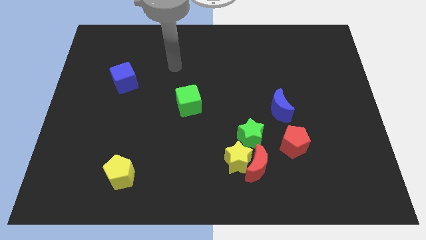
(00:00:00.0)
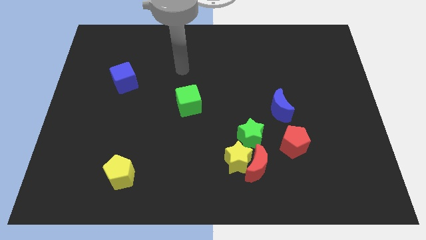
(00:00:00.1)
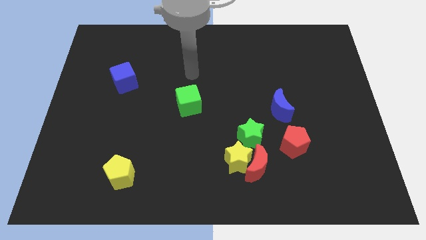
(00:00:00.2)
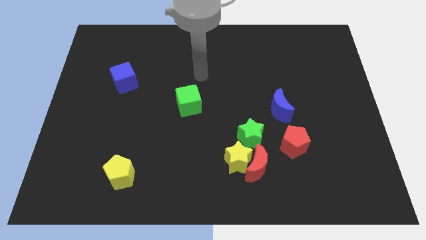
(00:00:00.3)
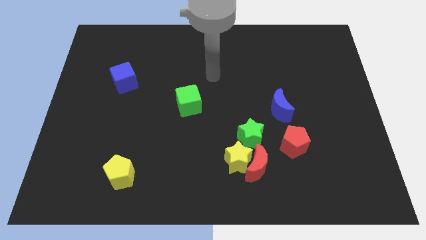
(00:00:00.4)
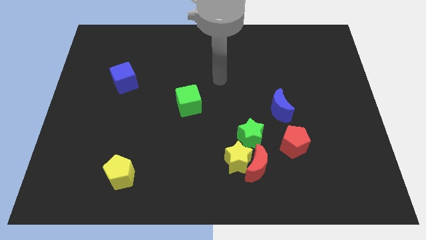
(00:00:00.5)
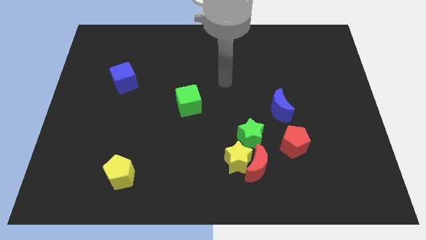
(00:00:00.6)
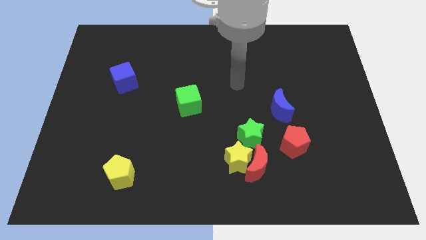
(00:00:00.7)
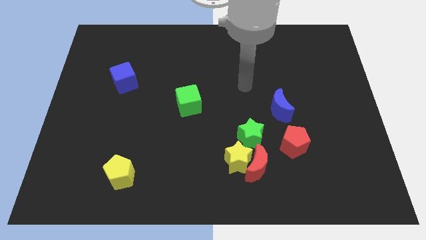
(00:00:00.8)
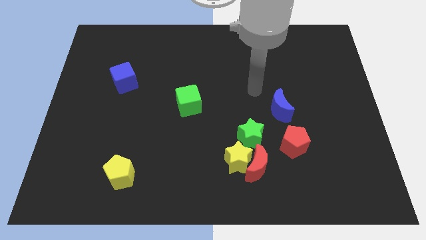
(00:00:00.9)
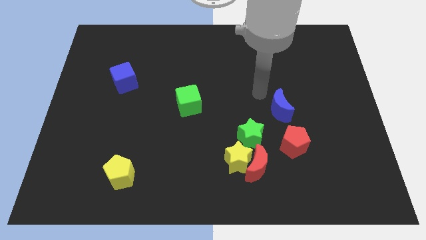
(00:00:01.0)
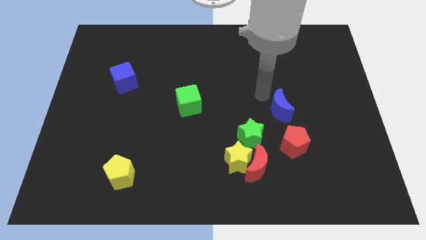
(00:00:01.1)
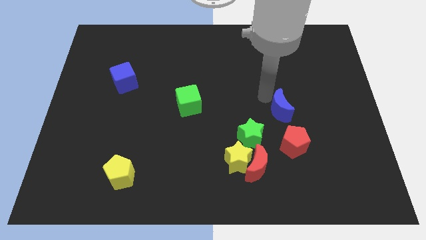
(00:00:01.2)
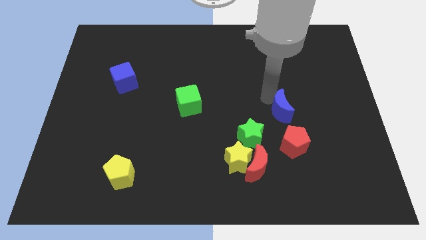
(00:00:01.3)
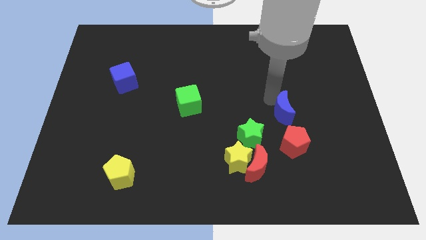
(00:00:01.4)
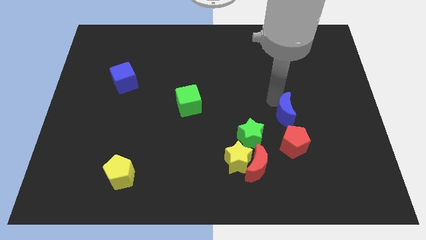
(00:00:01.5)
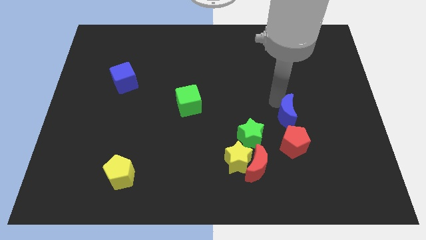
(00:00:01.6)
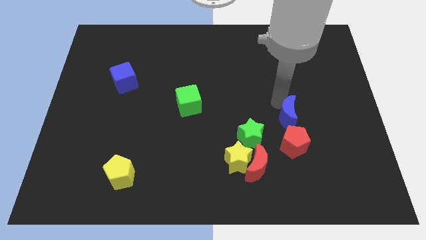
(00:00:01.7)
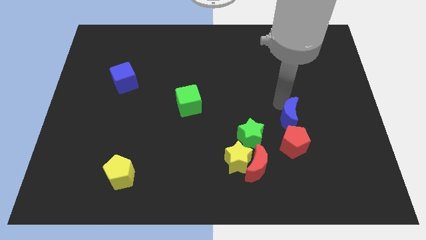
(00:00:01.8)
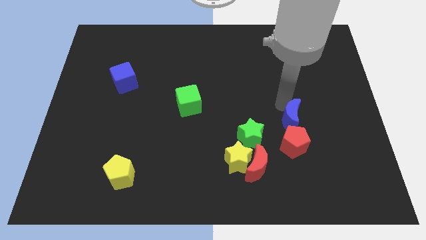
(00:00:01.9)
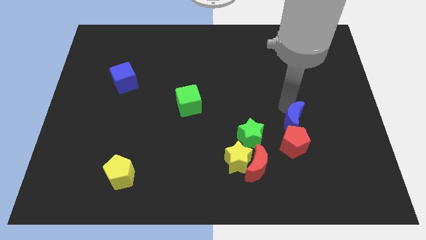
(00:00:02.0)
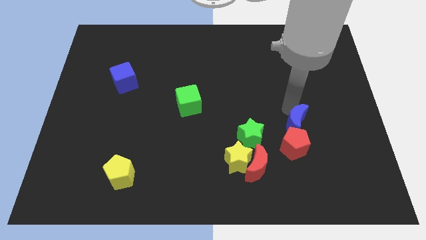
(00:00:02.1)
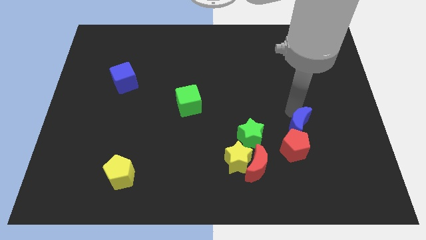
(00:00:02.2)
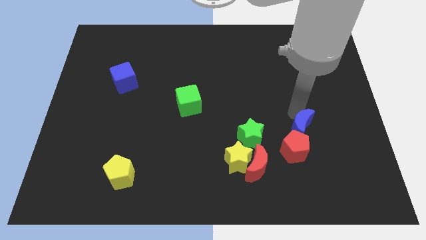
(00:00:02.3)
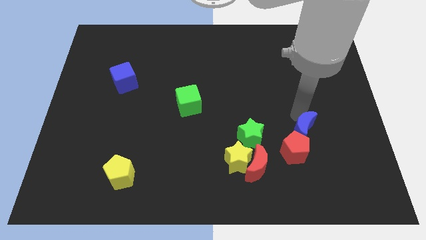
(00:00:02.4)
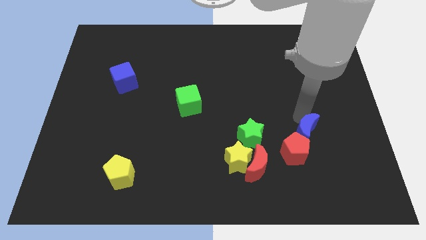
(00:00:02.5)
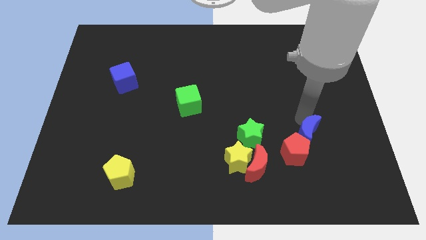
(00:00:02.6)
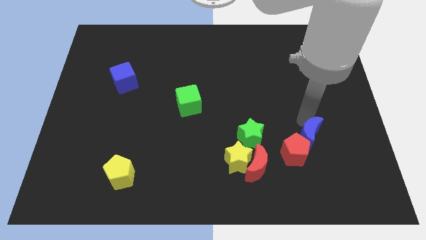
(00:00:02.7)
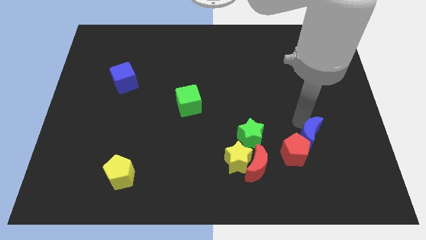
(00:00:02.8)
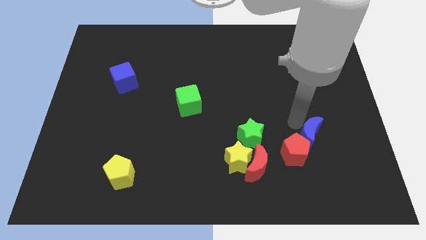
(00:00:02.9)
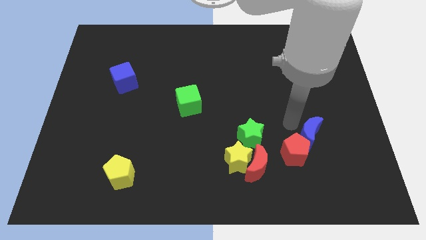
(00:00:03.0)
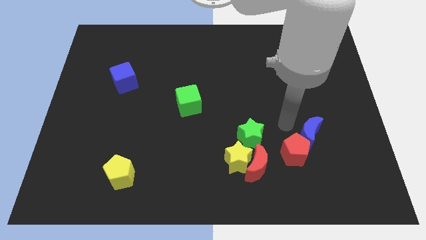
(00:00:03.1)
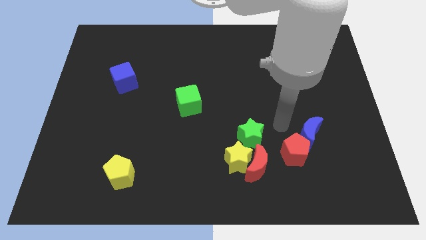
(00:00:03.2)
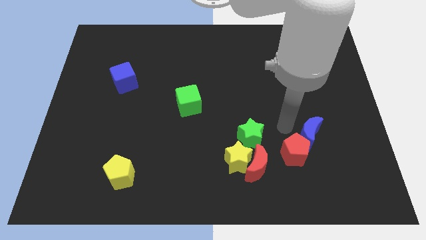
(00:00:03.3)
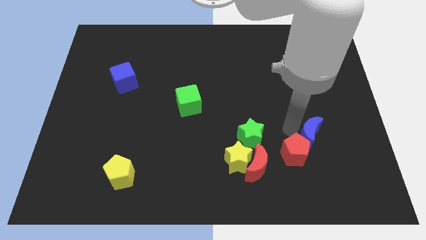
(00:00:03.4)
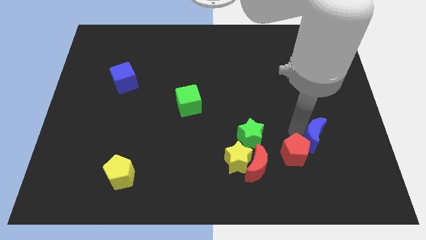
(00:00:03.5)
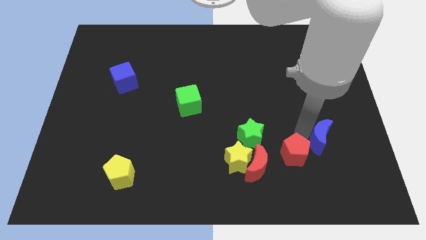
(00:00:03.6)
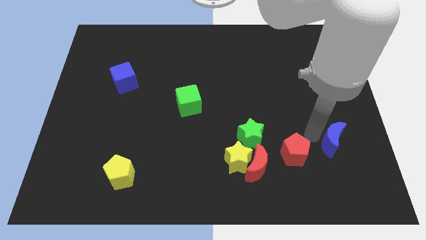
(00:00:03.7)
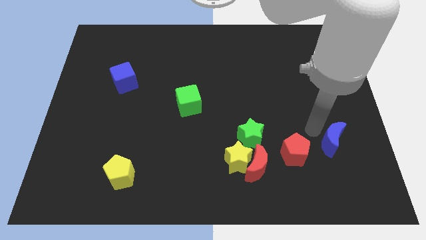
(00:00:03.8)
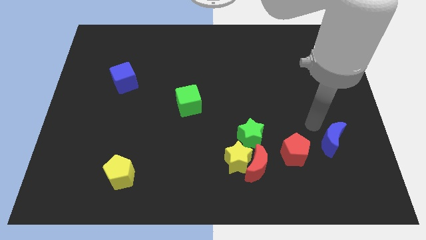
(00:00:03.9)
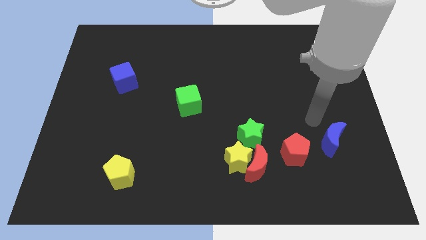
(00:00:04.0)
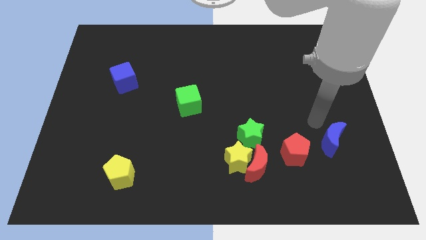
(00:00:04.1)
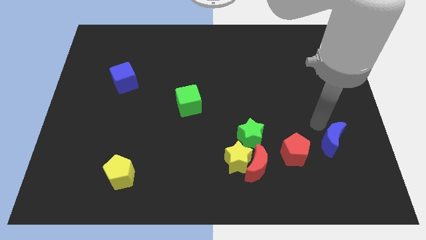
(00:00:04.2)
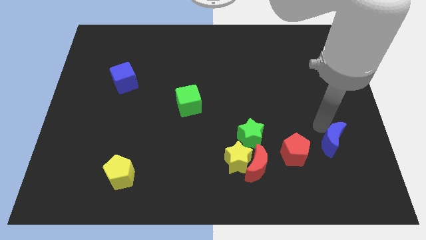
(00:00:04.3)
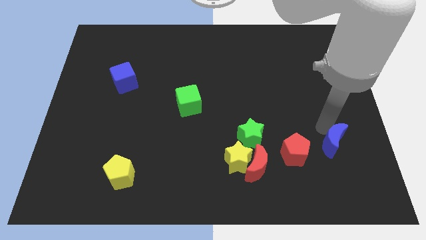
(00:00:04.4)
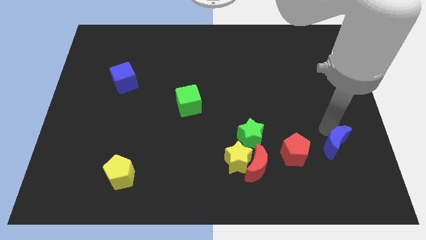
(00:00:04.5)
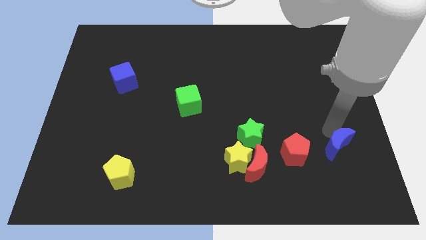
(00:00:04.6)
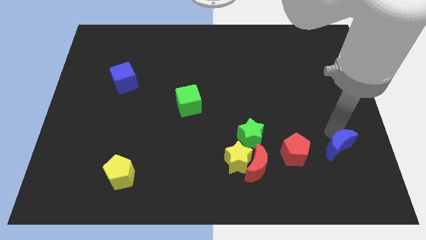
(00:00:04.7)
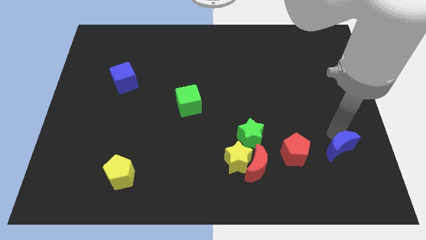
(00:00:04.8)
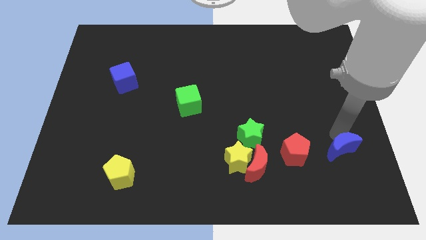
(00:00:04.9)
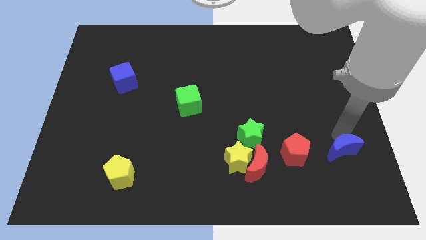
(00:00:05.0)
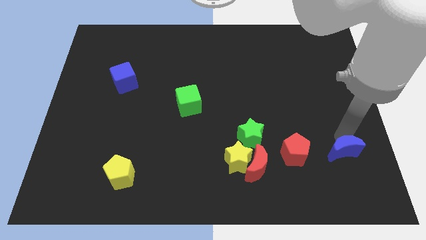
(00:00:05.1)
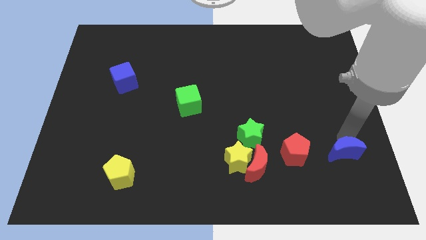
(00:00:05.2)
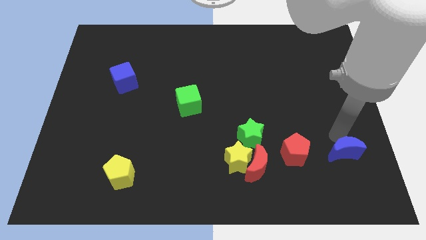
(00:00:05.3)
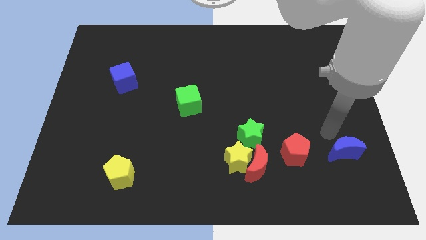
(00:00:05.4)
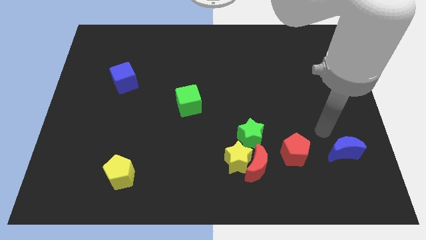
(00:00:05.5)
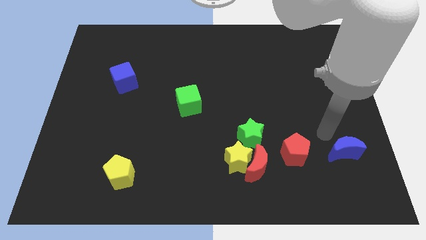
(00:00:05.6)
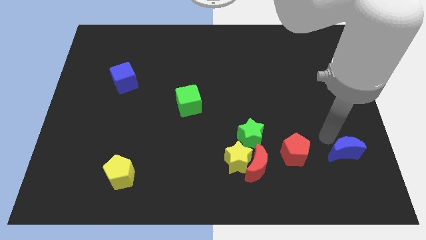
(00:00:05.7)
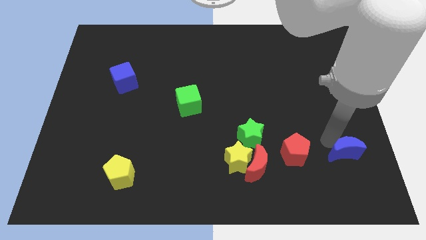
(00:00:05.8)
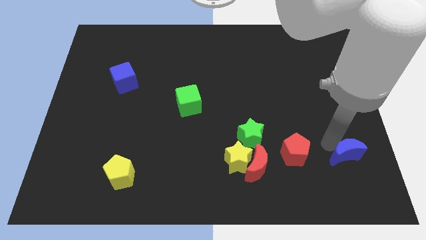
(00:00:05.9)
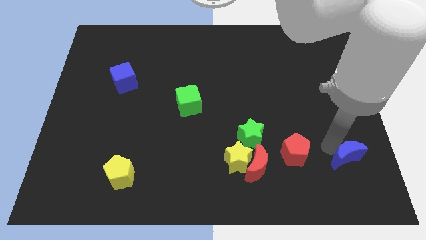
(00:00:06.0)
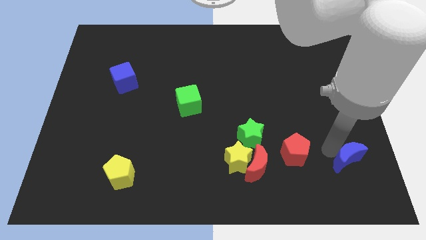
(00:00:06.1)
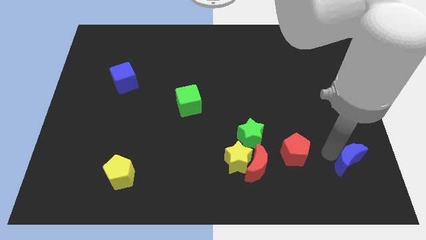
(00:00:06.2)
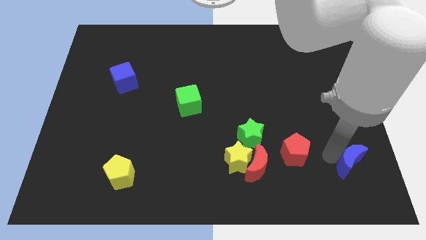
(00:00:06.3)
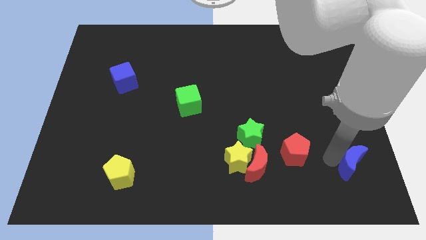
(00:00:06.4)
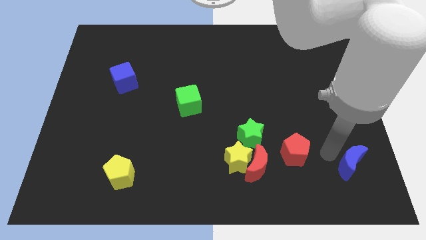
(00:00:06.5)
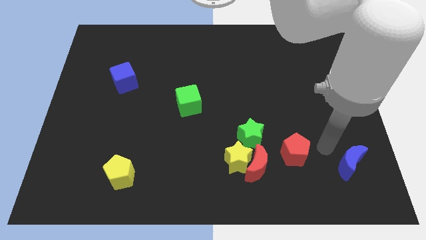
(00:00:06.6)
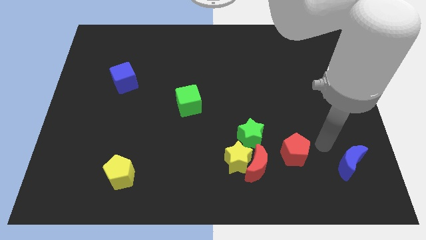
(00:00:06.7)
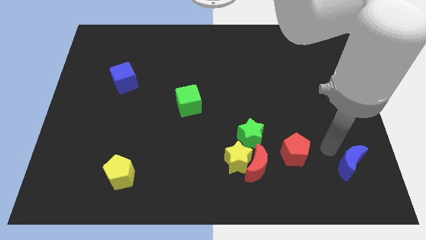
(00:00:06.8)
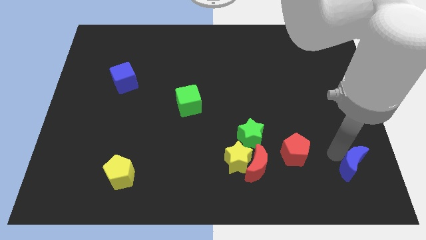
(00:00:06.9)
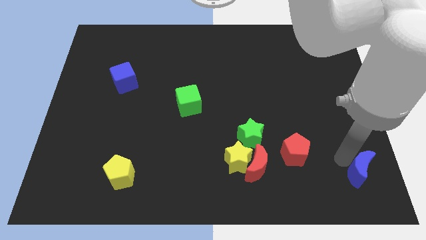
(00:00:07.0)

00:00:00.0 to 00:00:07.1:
slide the blue moon to the bottom right corner
